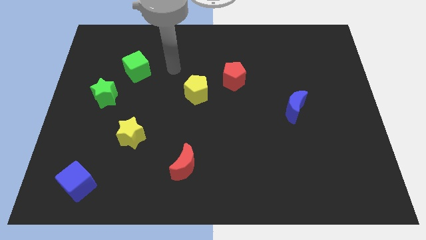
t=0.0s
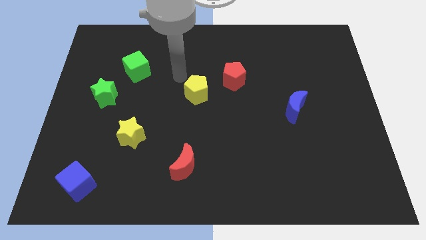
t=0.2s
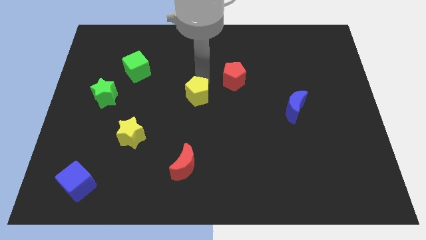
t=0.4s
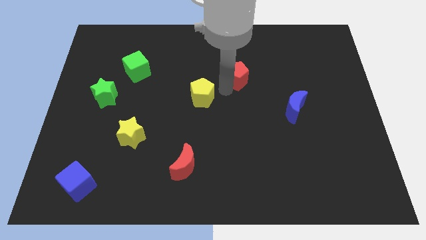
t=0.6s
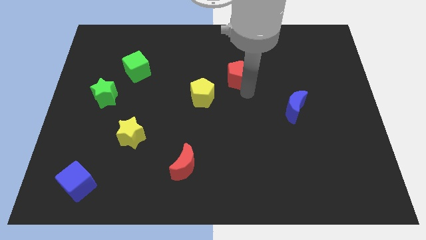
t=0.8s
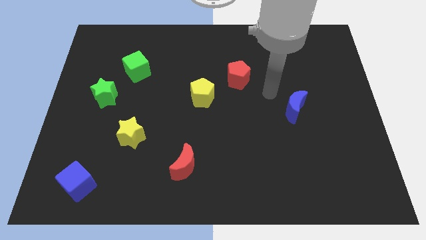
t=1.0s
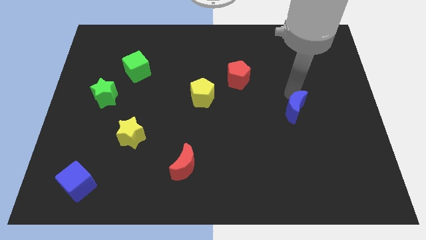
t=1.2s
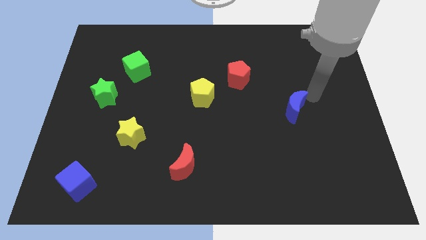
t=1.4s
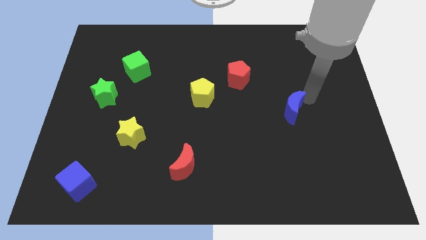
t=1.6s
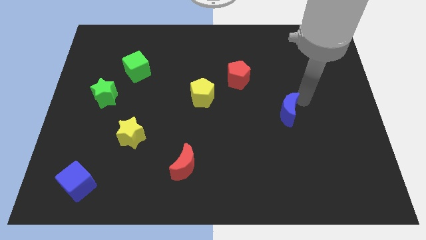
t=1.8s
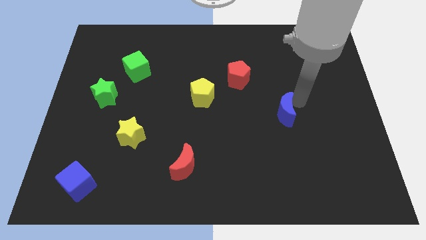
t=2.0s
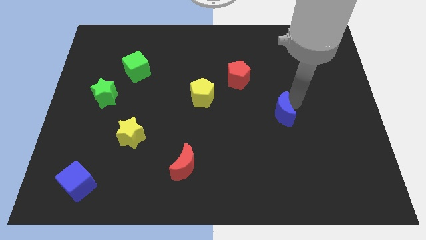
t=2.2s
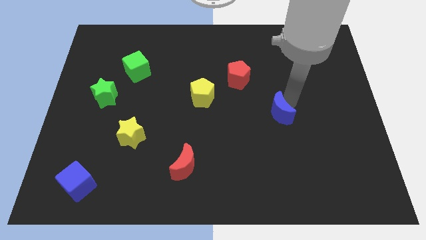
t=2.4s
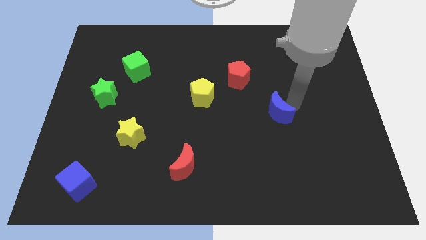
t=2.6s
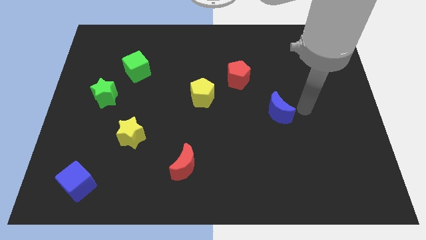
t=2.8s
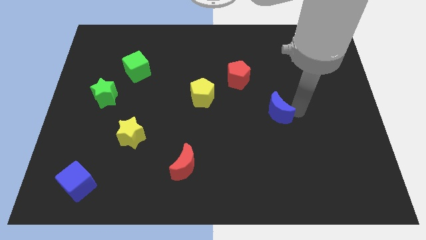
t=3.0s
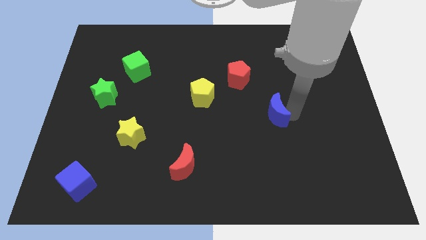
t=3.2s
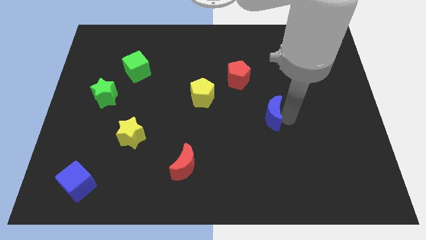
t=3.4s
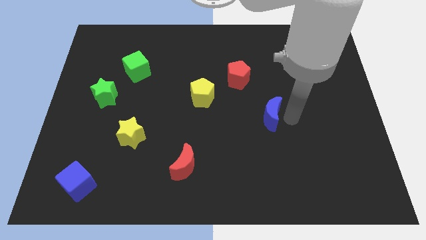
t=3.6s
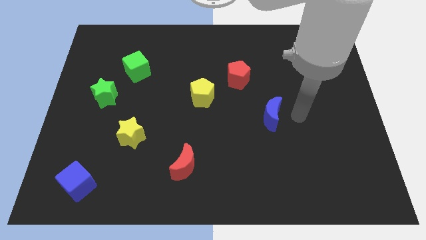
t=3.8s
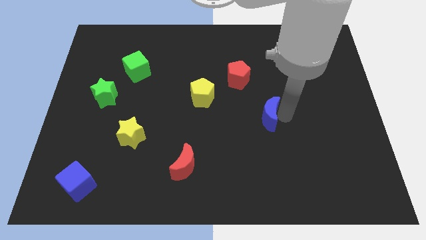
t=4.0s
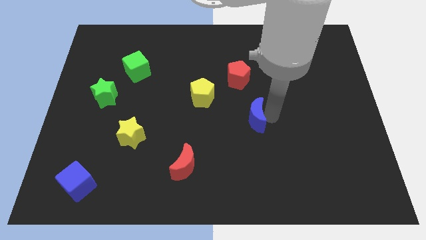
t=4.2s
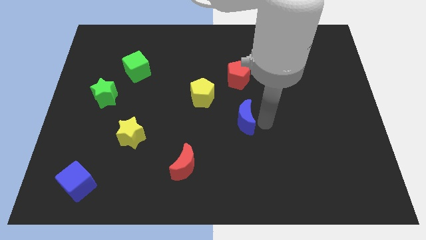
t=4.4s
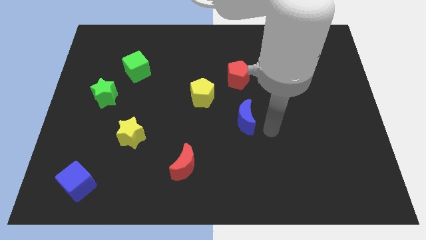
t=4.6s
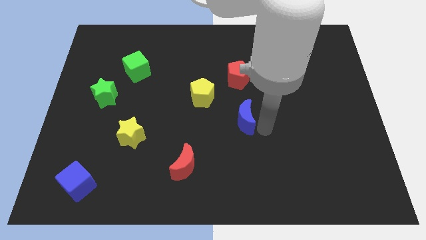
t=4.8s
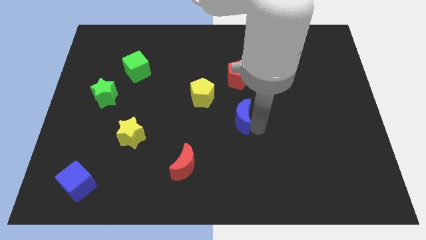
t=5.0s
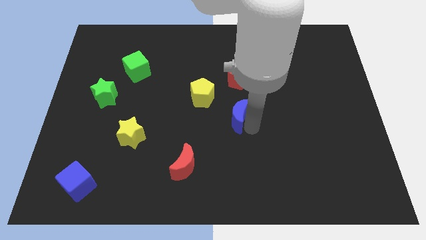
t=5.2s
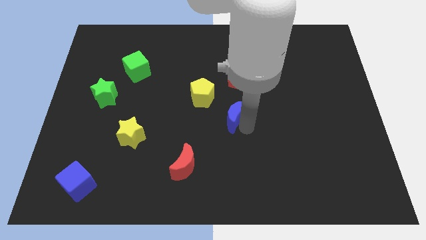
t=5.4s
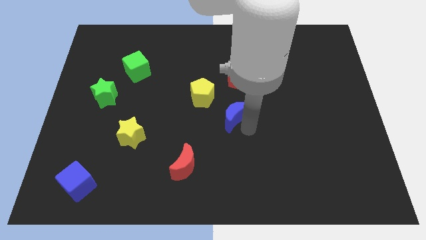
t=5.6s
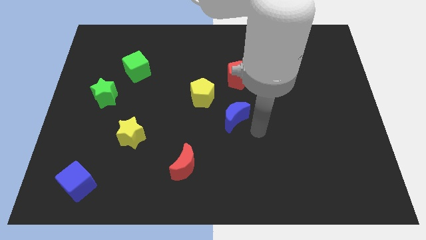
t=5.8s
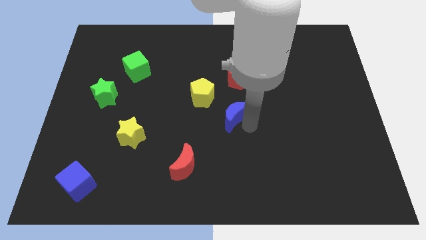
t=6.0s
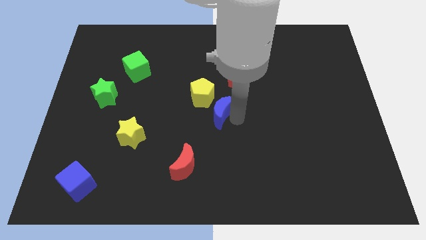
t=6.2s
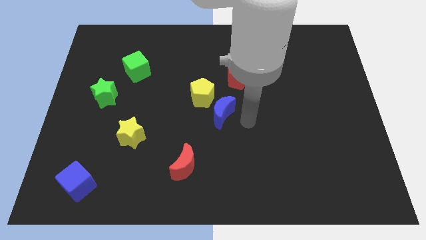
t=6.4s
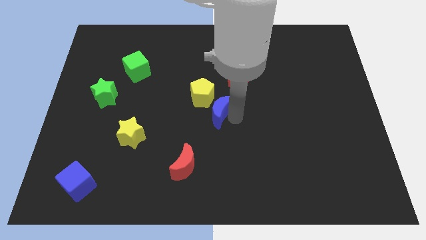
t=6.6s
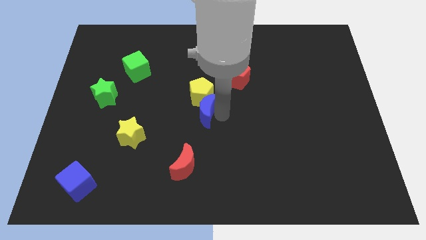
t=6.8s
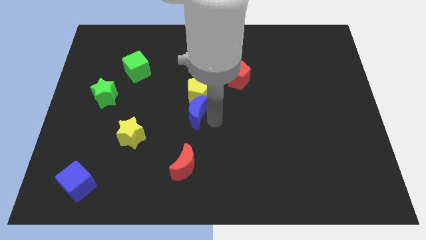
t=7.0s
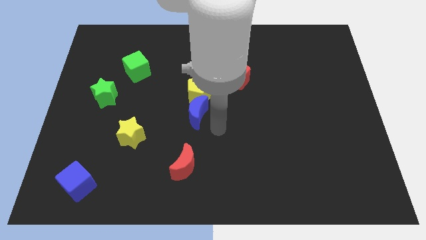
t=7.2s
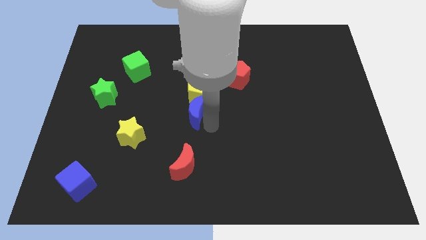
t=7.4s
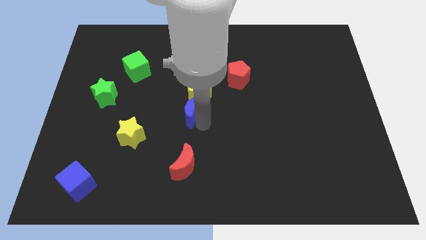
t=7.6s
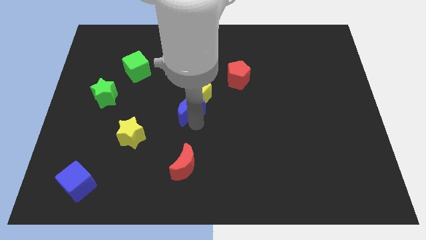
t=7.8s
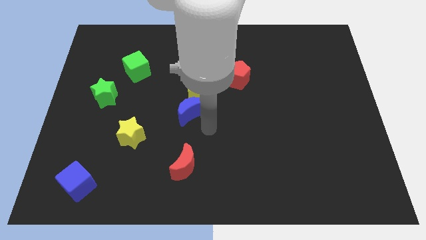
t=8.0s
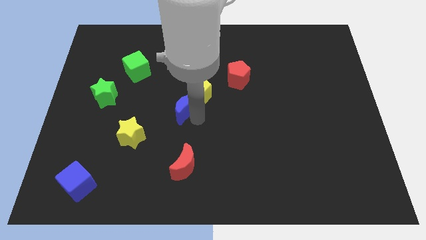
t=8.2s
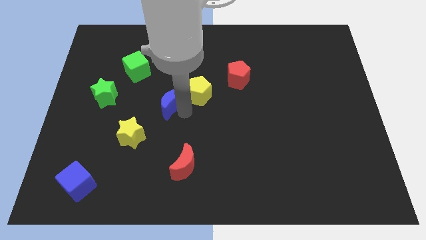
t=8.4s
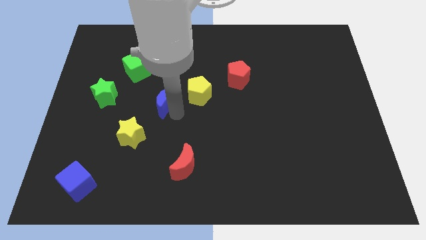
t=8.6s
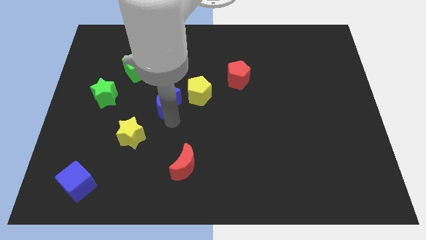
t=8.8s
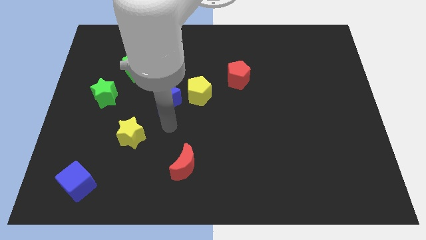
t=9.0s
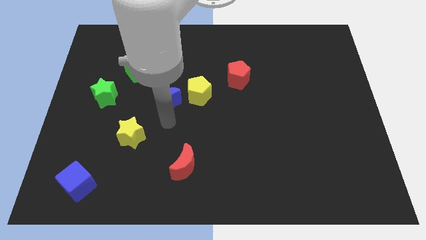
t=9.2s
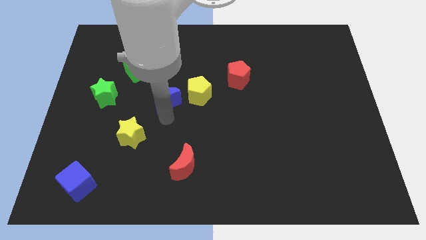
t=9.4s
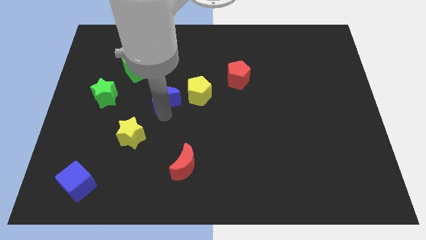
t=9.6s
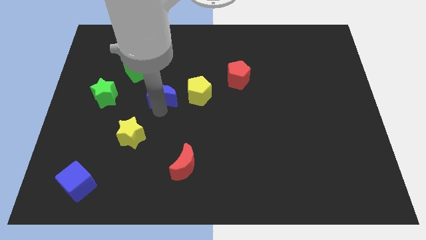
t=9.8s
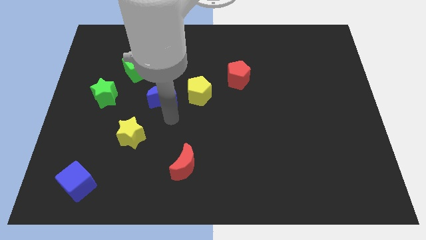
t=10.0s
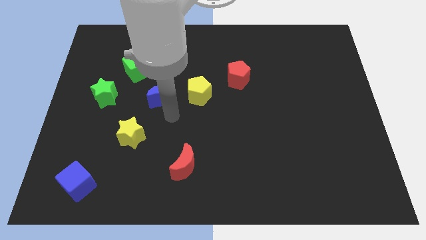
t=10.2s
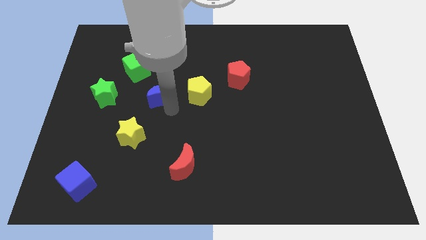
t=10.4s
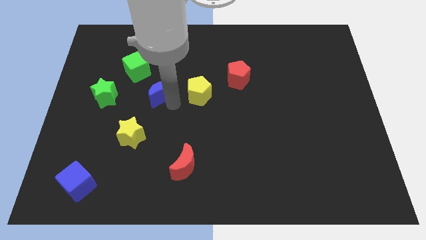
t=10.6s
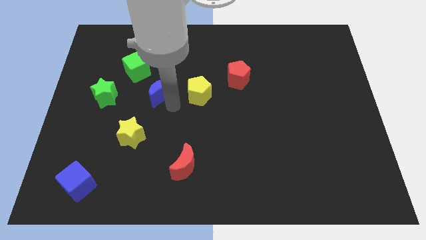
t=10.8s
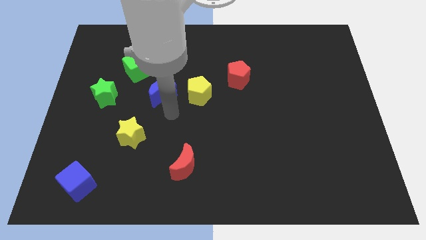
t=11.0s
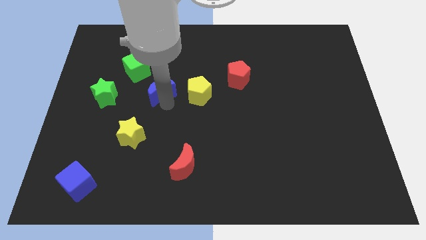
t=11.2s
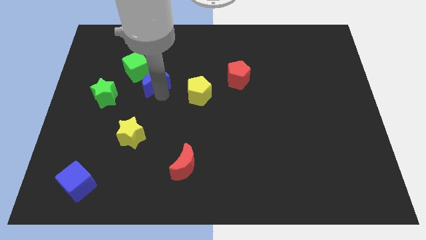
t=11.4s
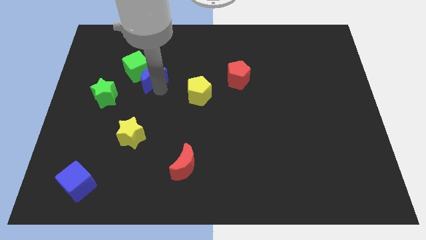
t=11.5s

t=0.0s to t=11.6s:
put the blue moon next to the green cube

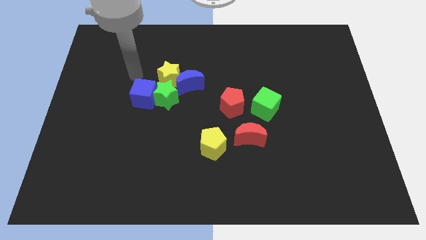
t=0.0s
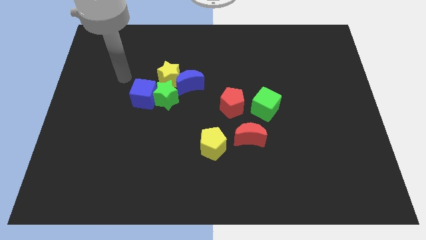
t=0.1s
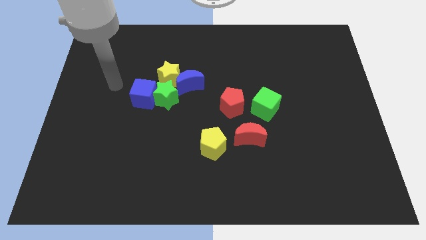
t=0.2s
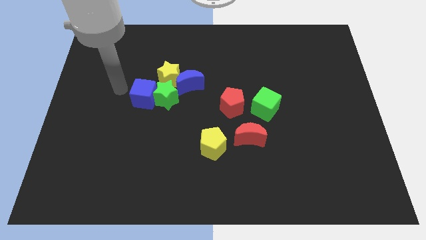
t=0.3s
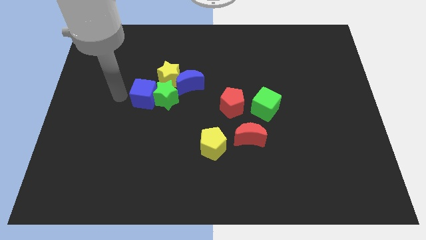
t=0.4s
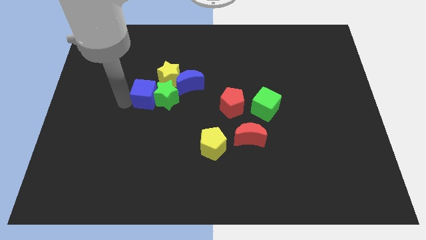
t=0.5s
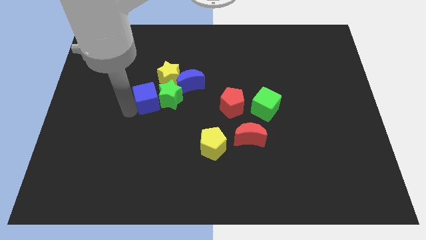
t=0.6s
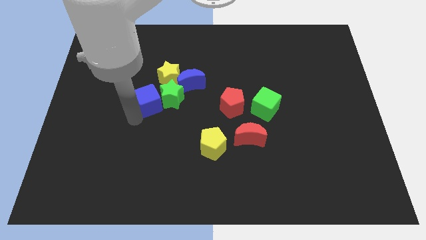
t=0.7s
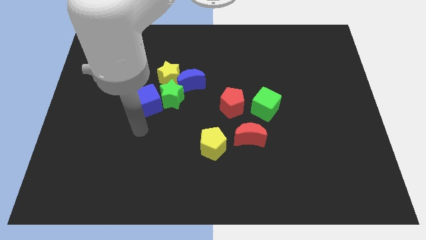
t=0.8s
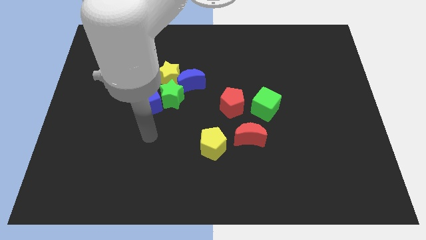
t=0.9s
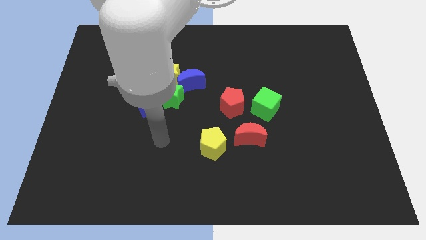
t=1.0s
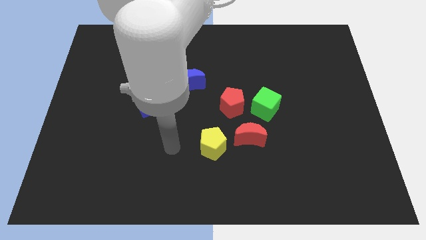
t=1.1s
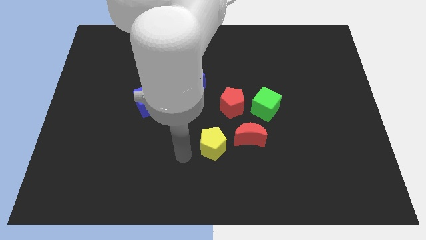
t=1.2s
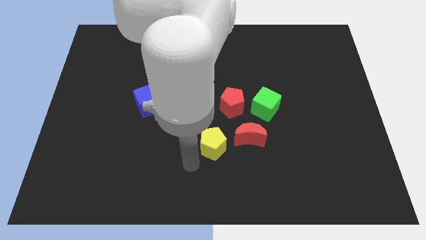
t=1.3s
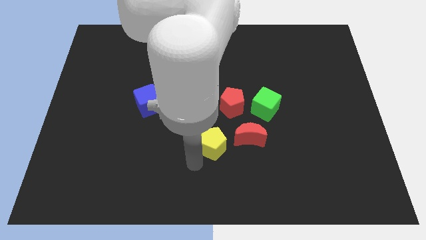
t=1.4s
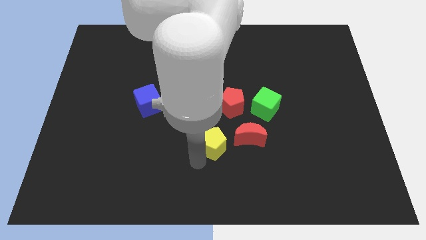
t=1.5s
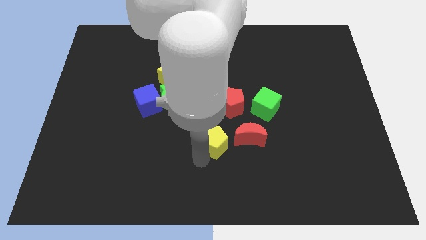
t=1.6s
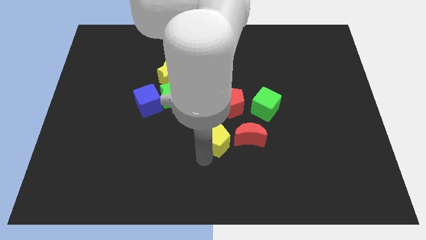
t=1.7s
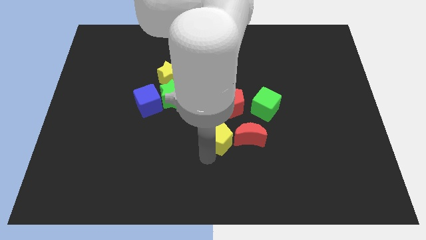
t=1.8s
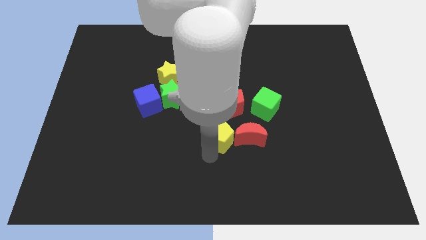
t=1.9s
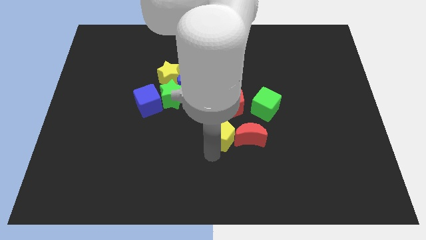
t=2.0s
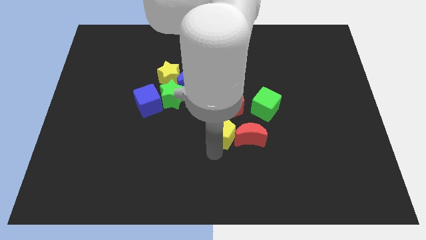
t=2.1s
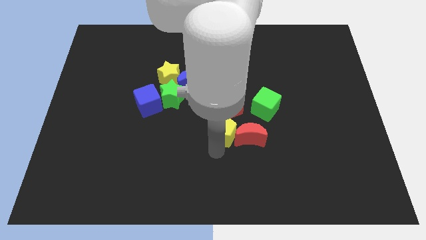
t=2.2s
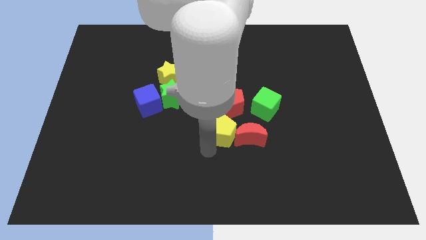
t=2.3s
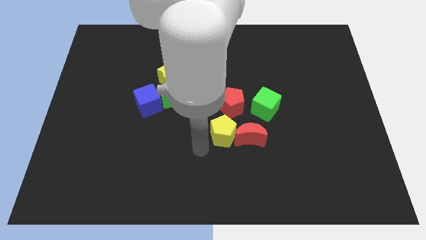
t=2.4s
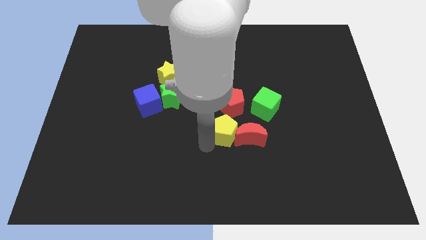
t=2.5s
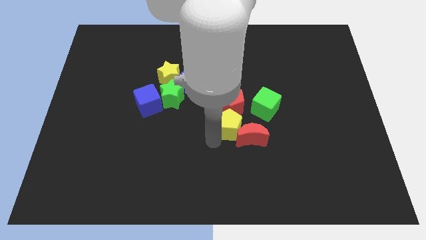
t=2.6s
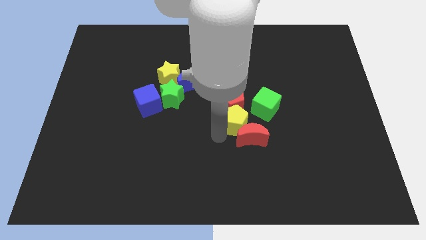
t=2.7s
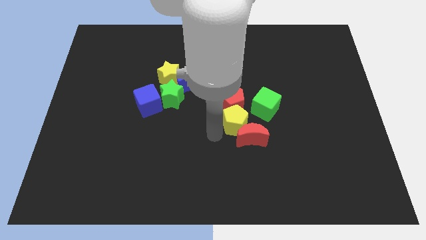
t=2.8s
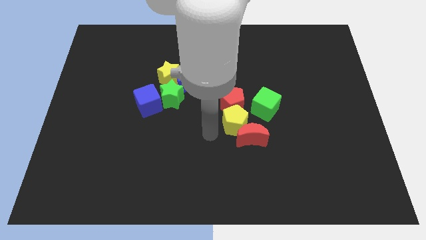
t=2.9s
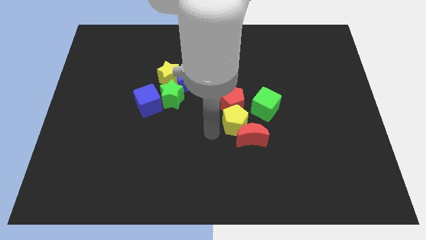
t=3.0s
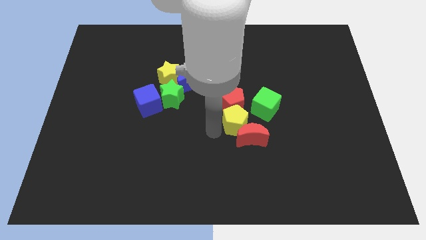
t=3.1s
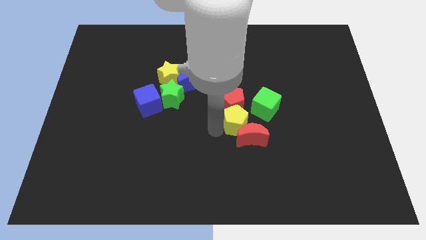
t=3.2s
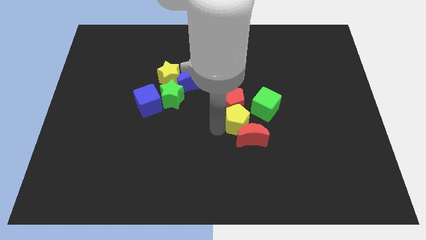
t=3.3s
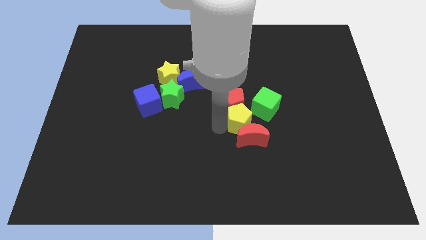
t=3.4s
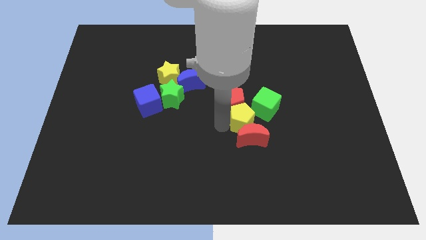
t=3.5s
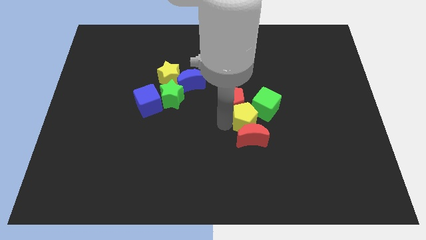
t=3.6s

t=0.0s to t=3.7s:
put the yellow pentagon to the green cube
